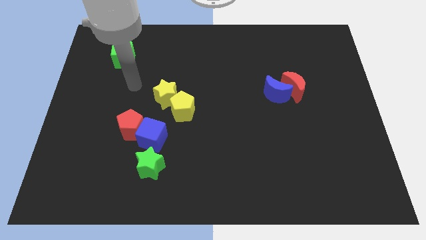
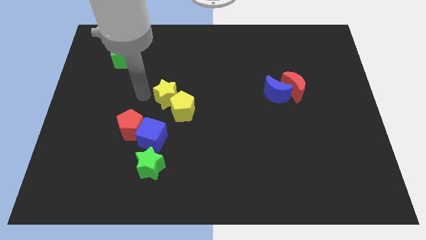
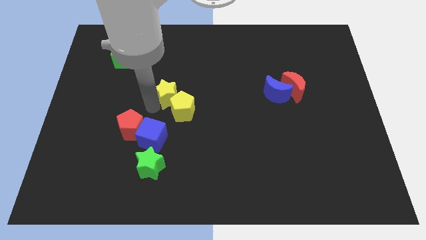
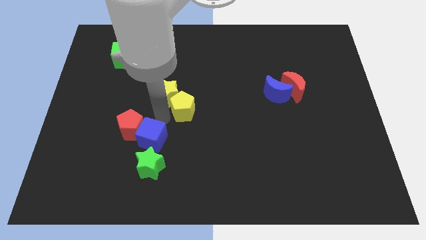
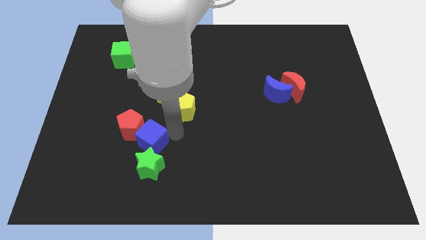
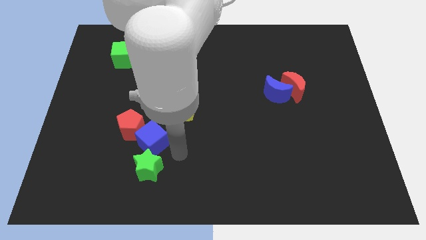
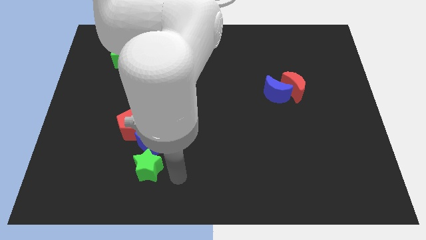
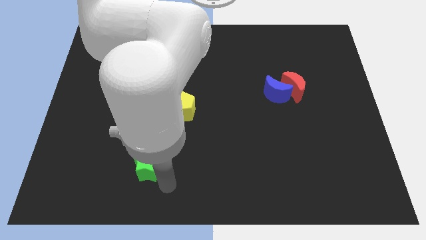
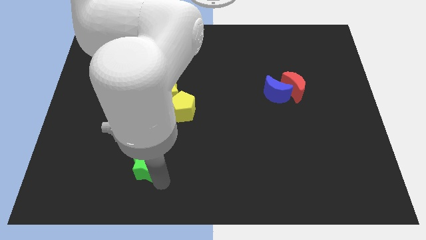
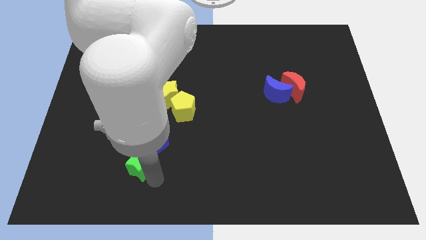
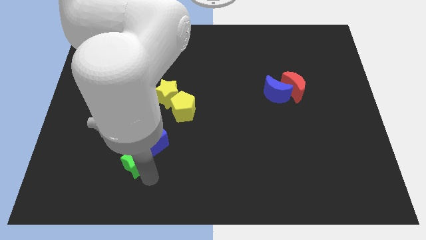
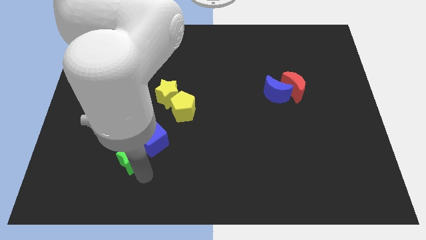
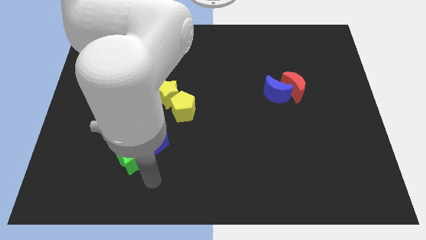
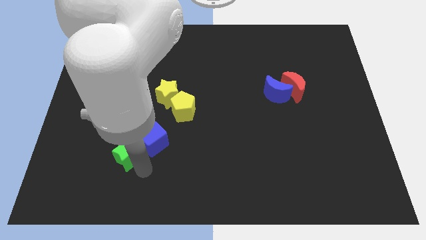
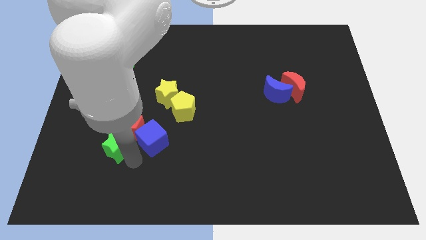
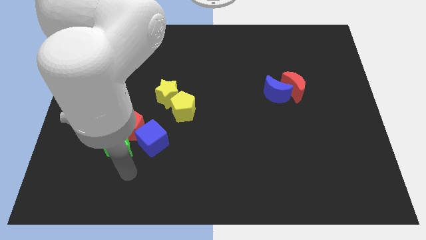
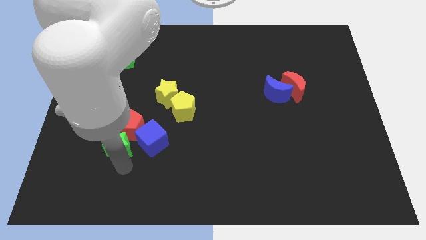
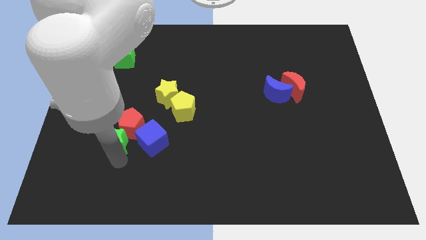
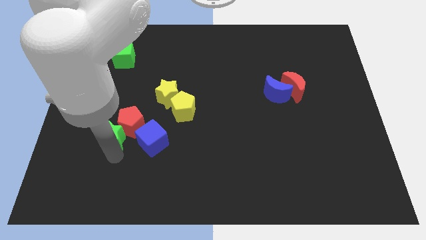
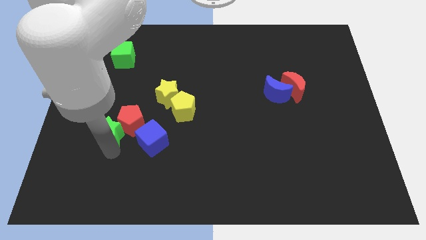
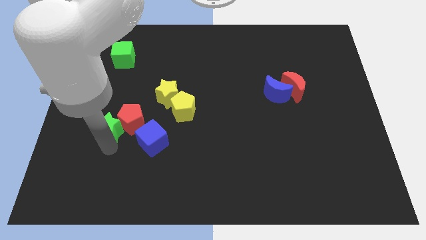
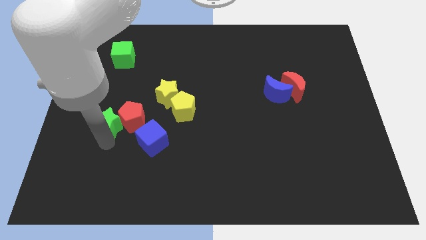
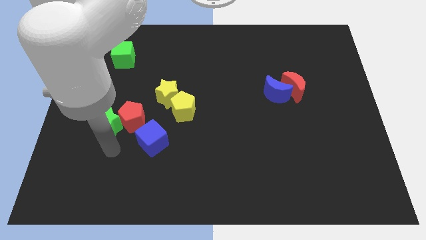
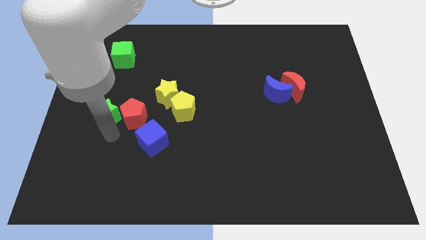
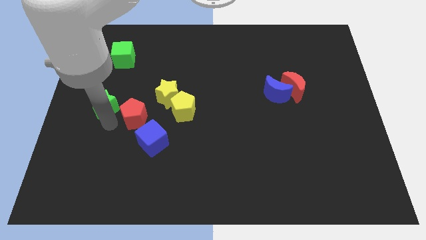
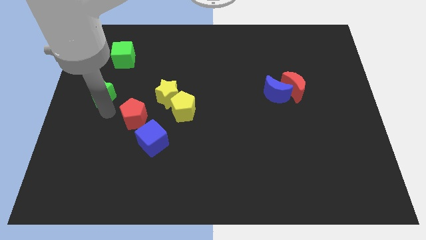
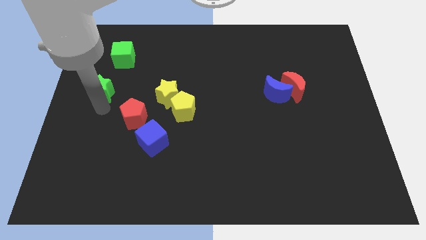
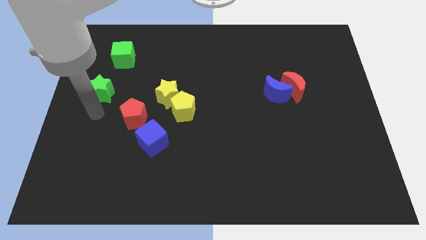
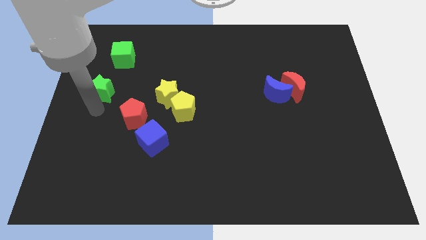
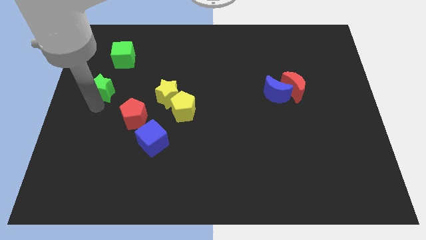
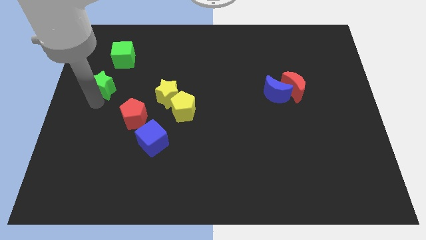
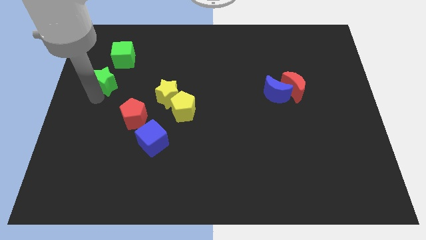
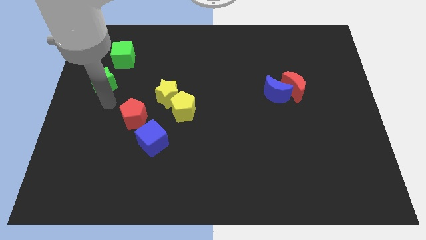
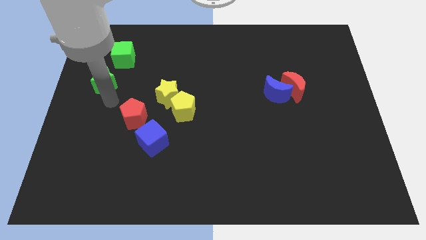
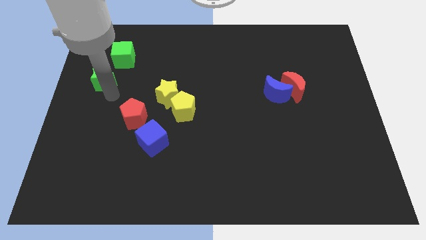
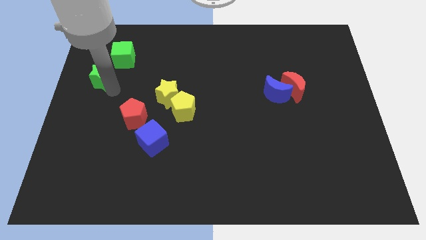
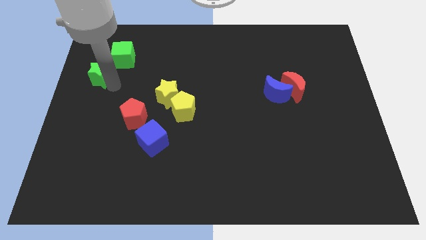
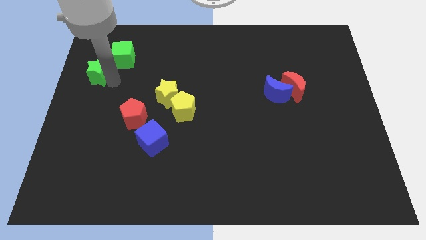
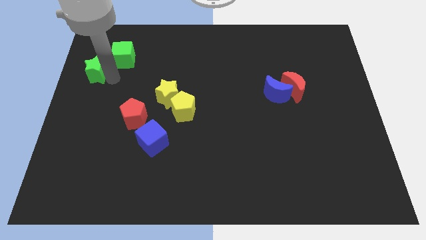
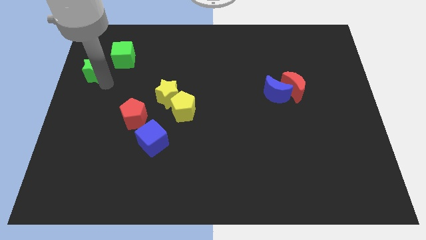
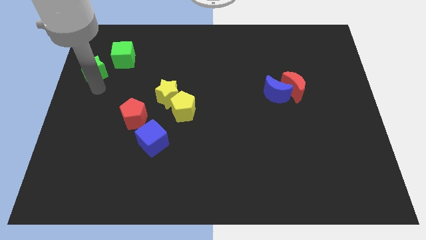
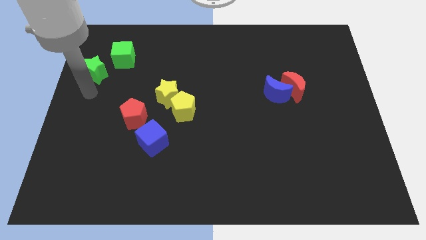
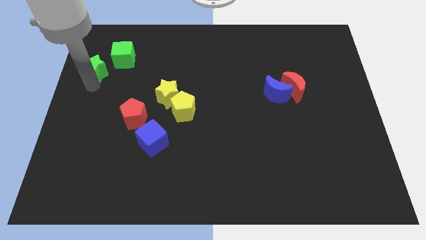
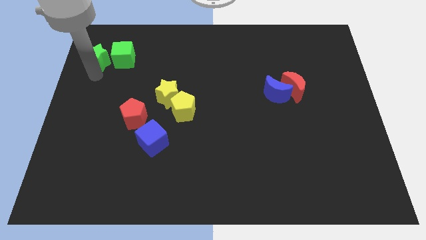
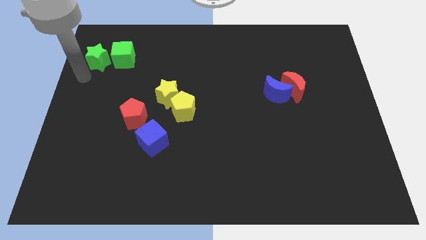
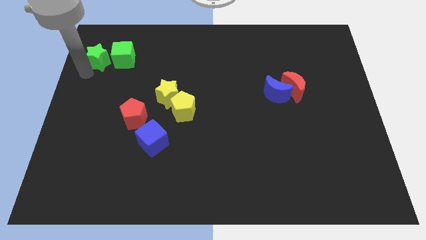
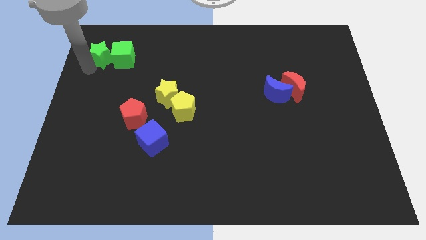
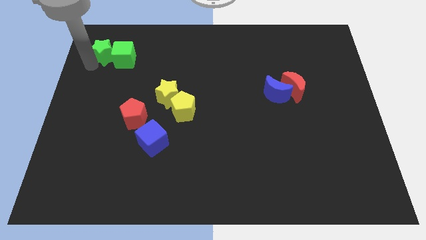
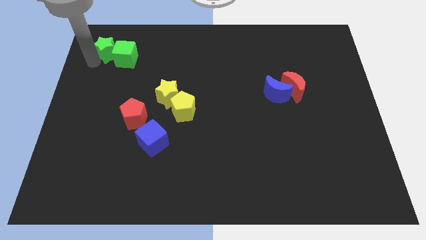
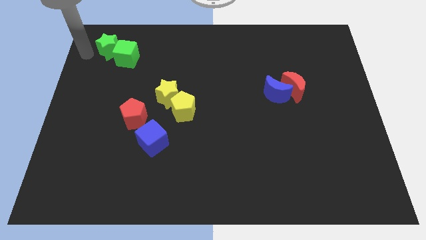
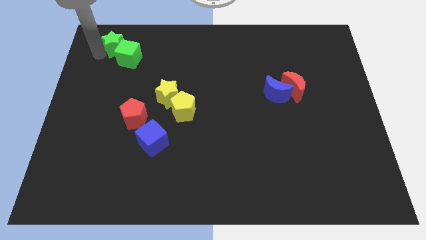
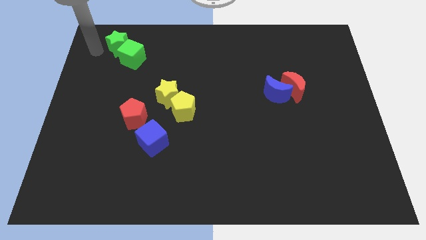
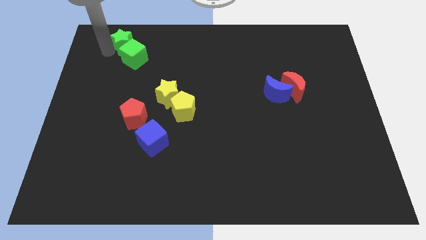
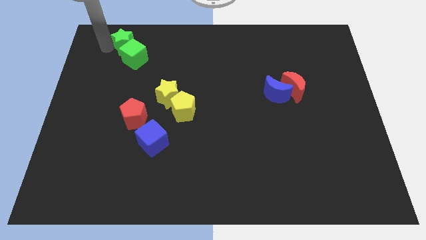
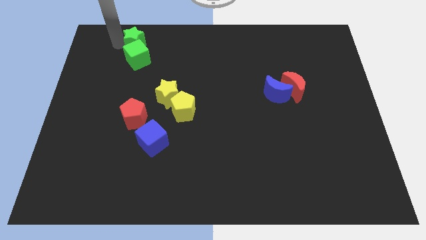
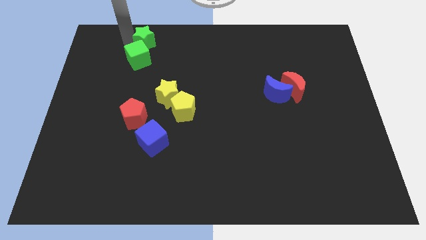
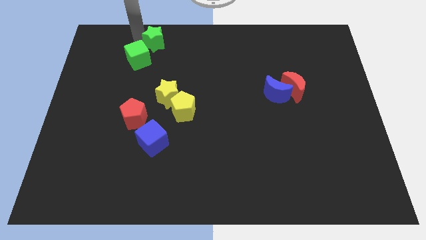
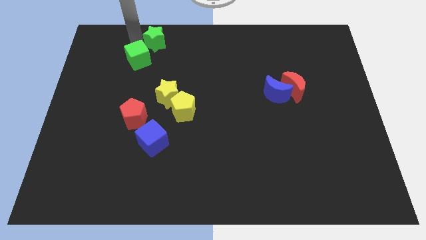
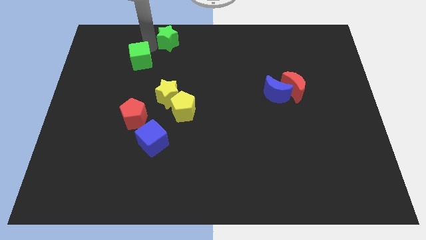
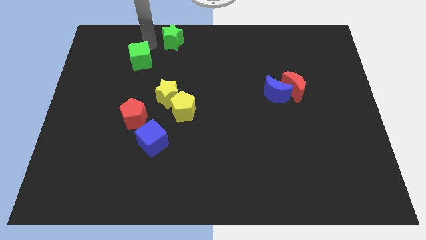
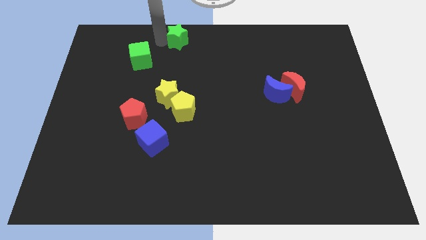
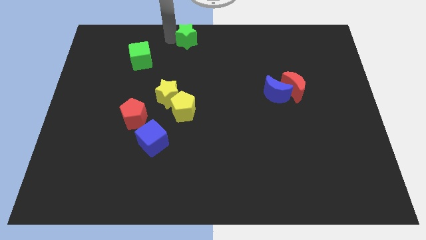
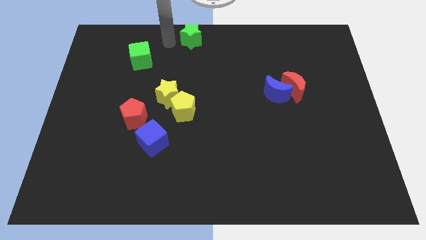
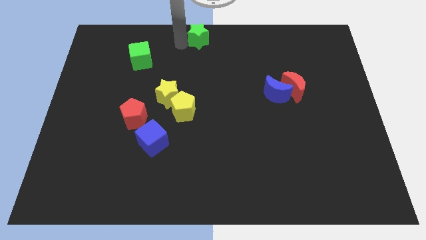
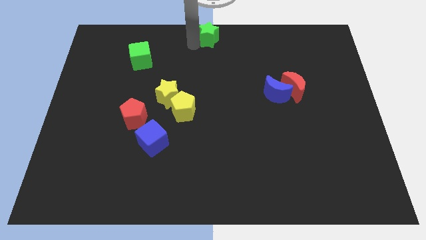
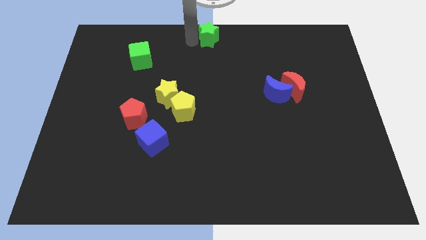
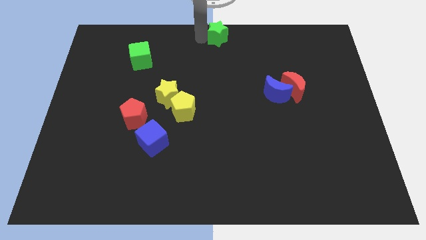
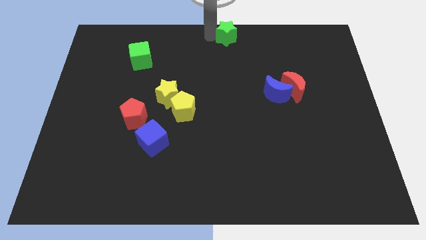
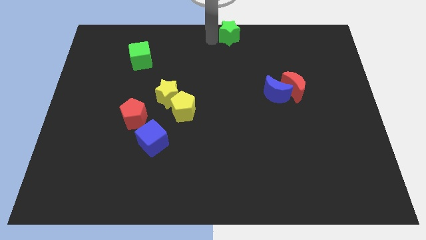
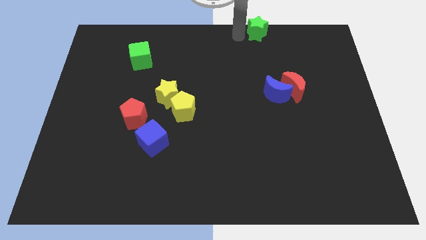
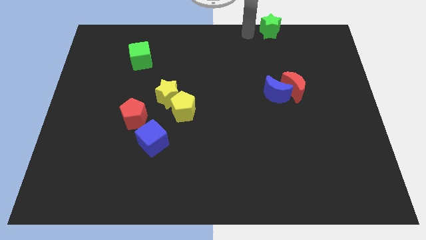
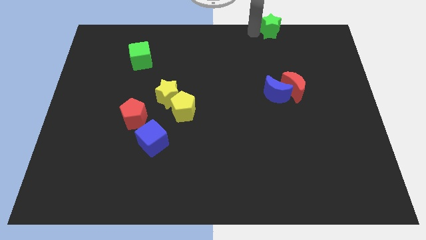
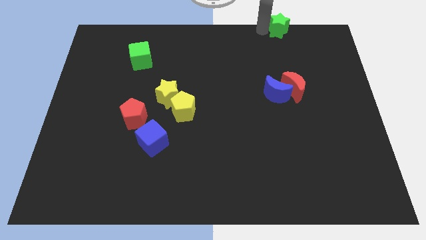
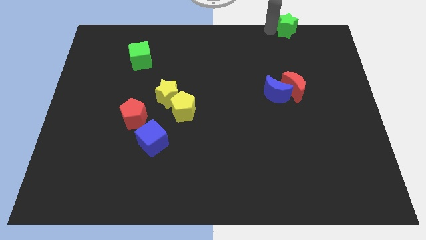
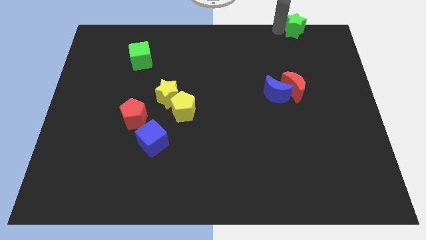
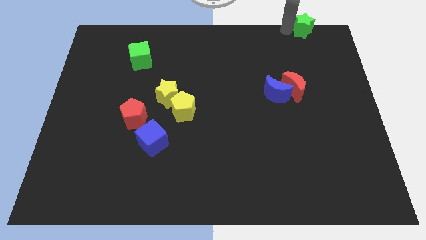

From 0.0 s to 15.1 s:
slide the green star to the top right corner
